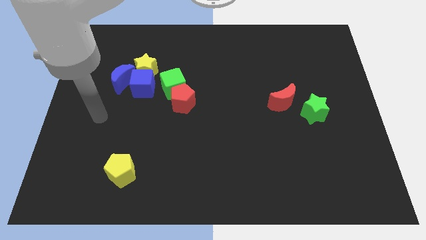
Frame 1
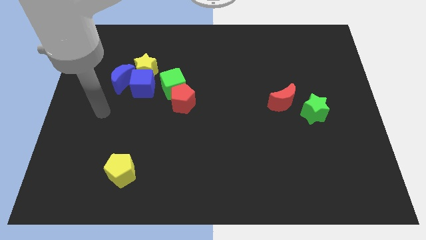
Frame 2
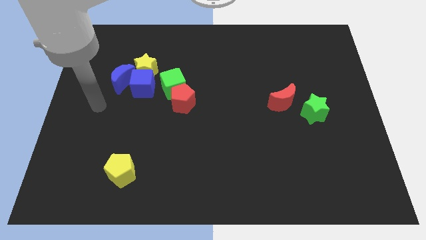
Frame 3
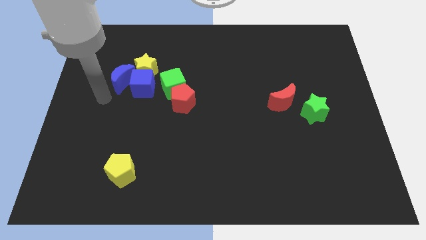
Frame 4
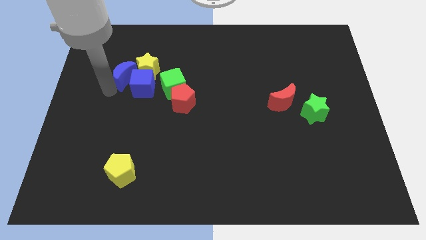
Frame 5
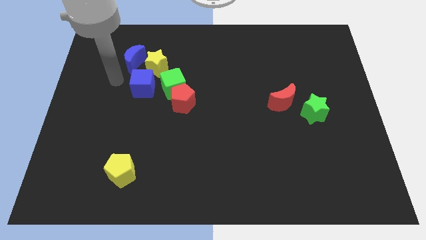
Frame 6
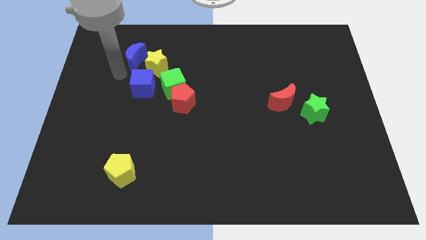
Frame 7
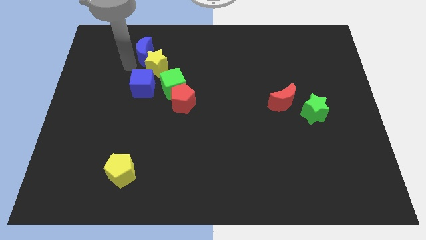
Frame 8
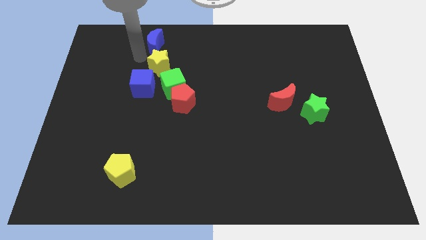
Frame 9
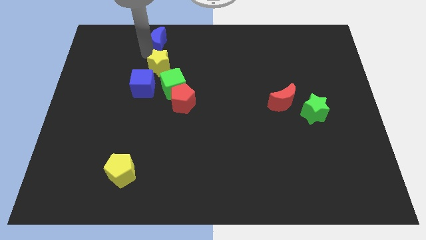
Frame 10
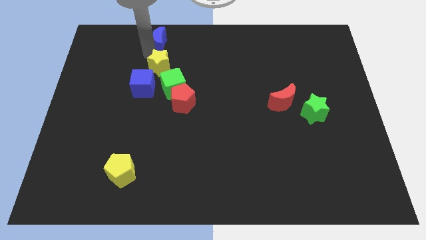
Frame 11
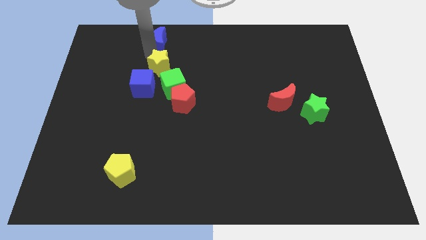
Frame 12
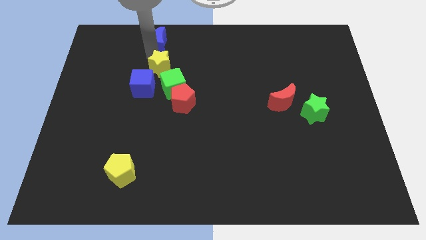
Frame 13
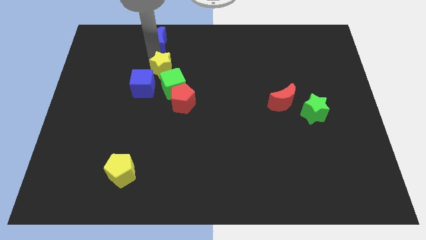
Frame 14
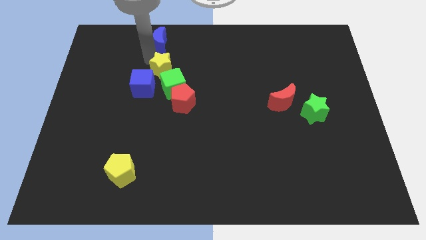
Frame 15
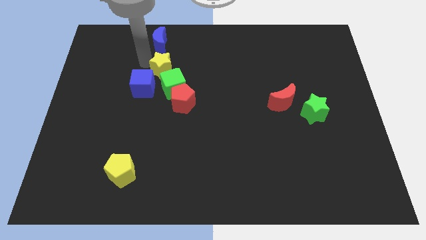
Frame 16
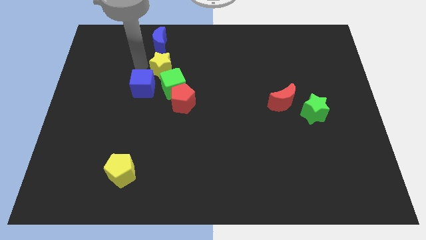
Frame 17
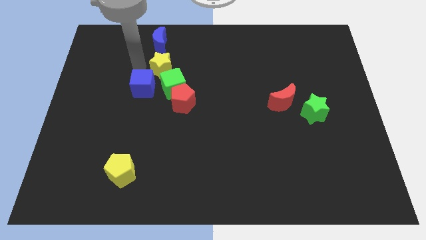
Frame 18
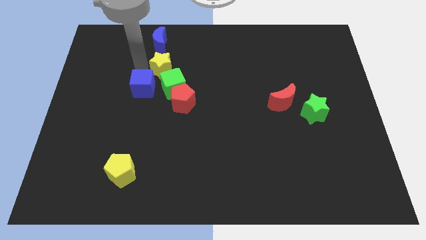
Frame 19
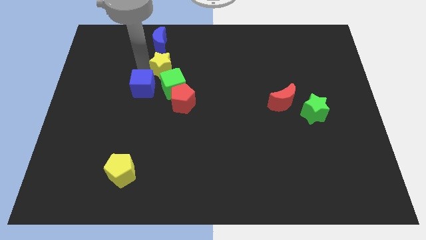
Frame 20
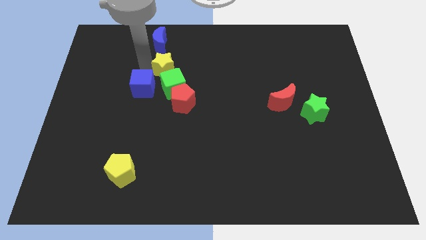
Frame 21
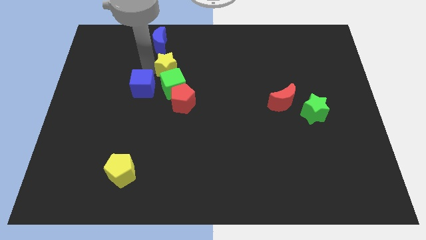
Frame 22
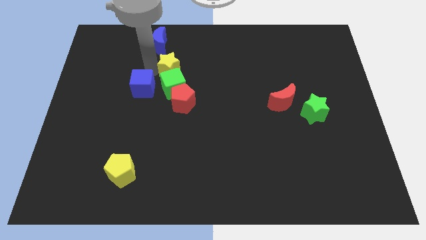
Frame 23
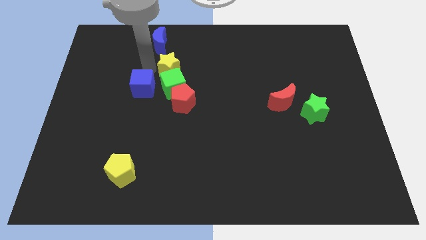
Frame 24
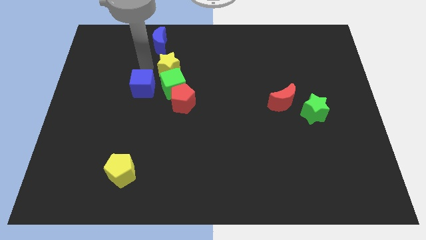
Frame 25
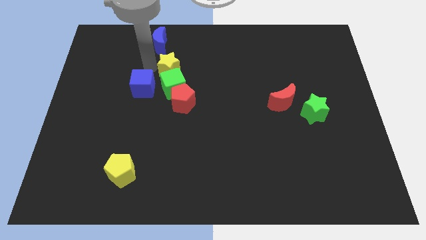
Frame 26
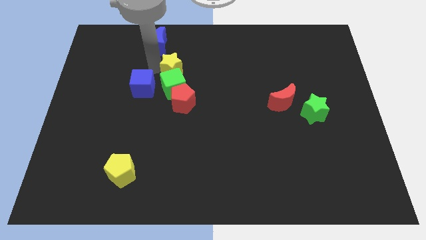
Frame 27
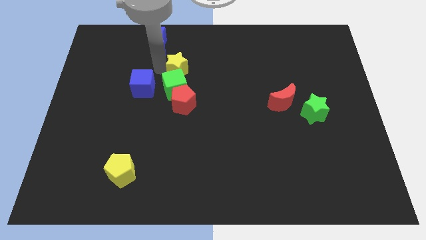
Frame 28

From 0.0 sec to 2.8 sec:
slightly push the yellow star right

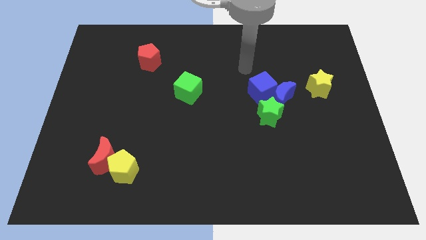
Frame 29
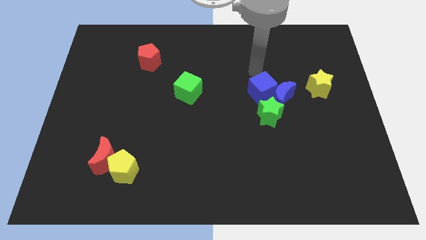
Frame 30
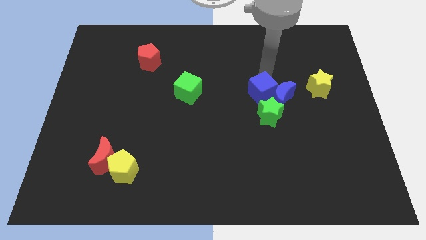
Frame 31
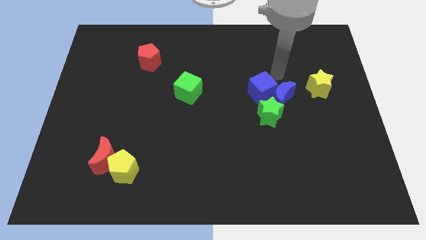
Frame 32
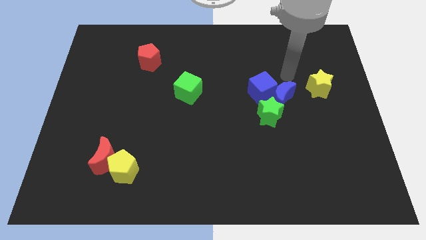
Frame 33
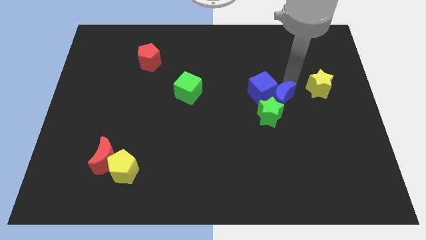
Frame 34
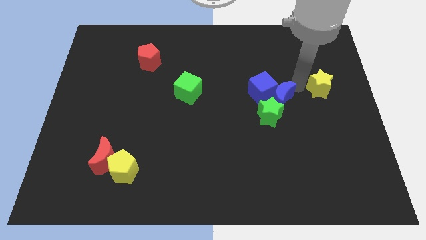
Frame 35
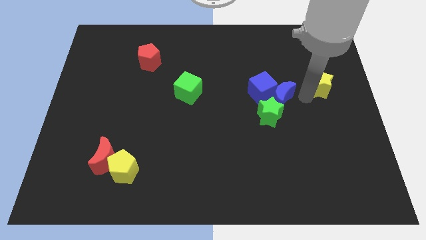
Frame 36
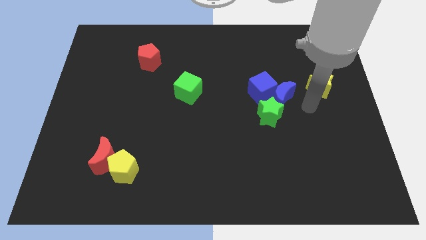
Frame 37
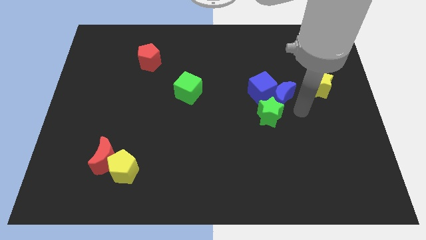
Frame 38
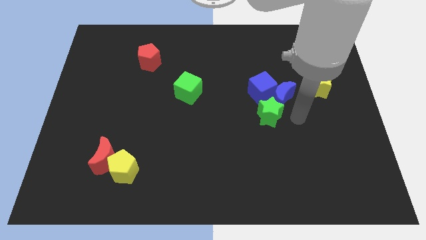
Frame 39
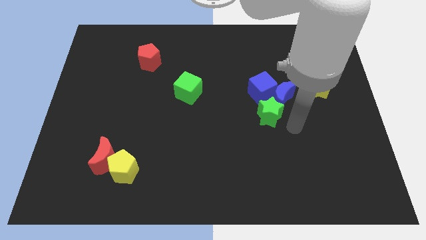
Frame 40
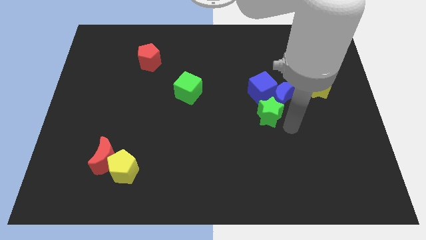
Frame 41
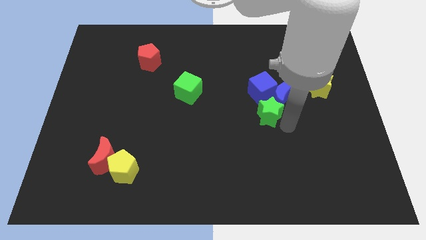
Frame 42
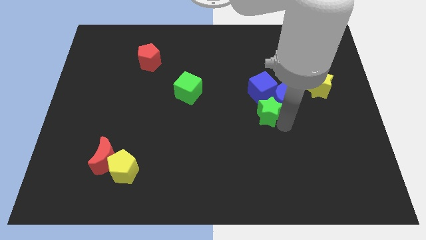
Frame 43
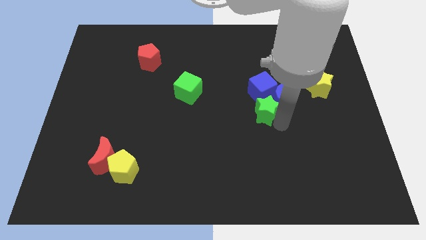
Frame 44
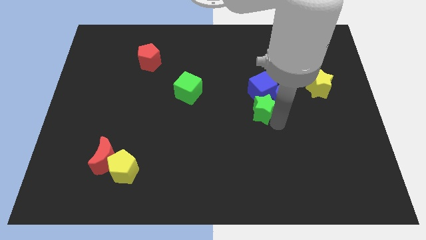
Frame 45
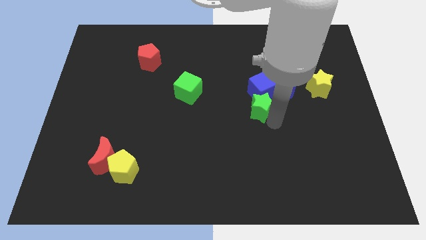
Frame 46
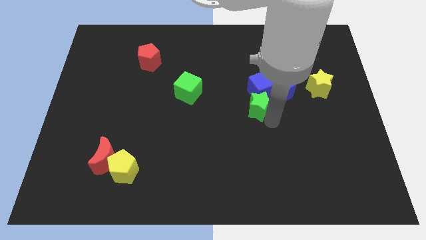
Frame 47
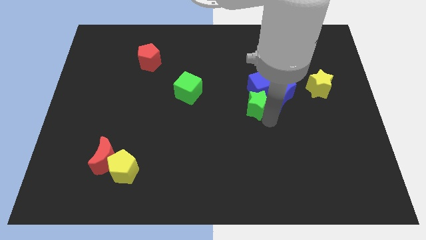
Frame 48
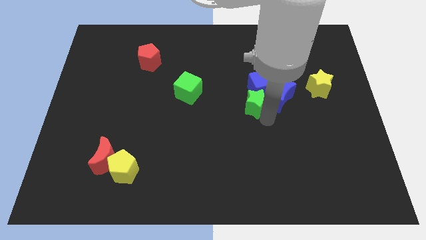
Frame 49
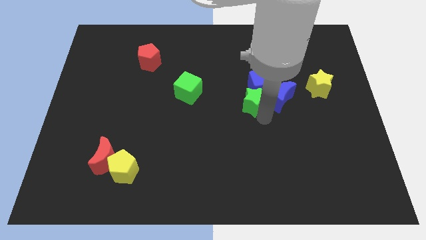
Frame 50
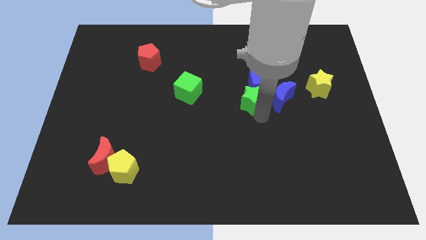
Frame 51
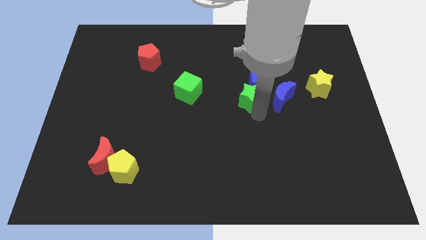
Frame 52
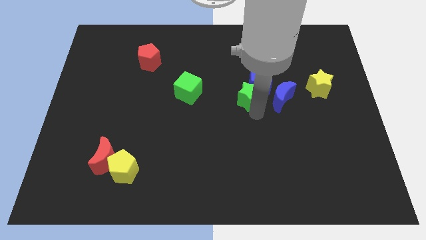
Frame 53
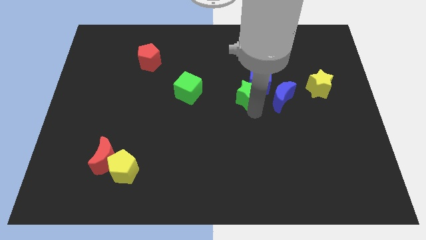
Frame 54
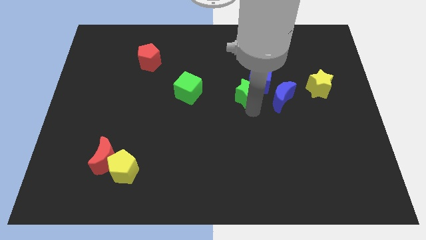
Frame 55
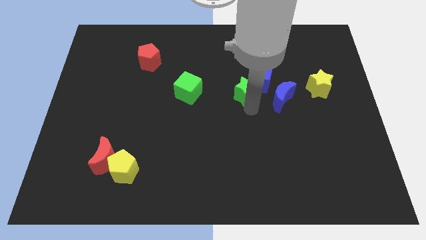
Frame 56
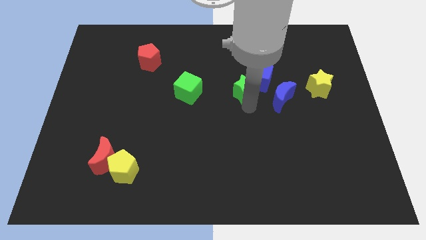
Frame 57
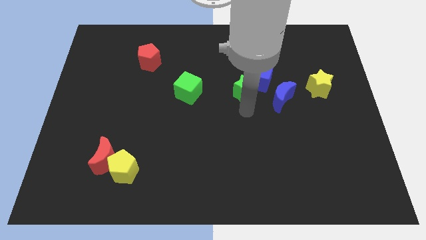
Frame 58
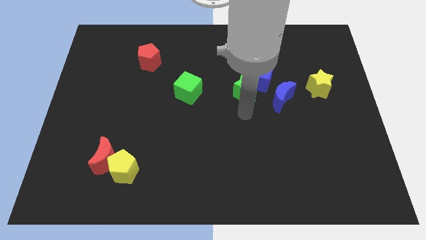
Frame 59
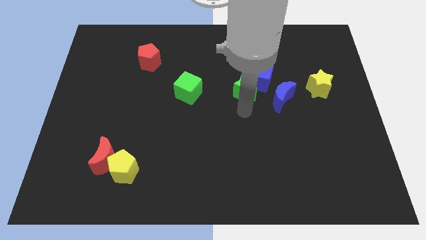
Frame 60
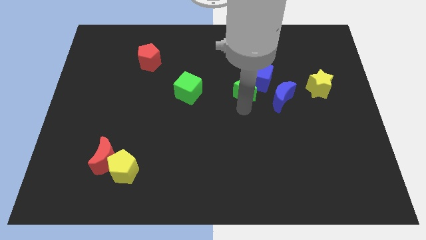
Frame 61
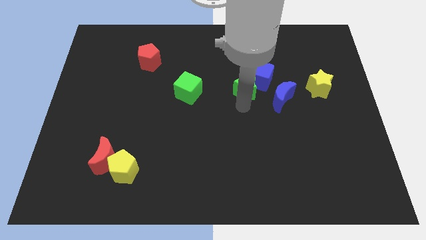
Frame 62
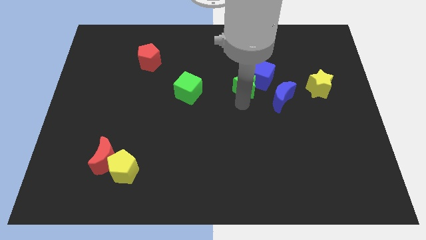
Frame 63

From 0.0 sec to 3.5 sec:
slightly slide the green star up

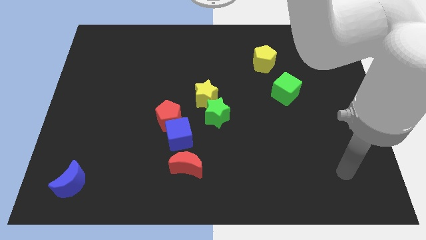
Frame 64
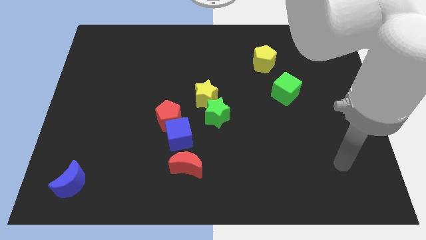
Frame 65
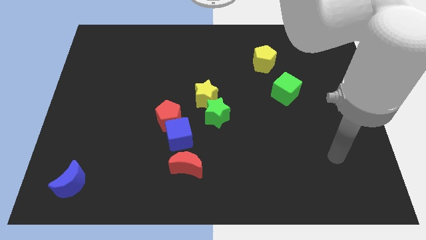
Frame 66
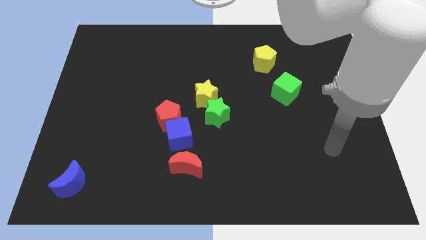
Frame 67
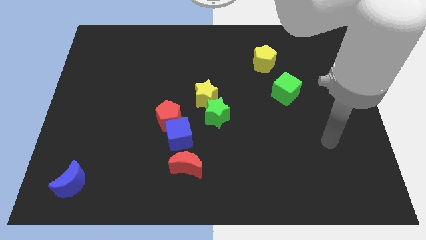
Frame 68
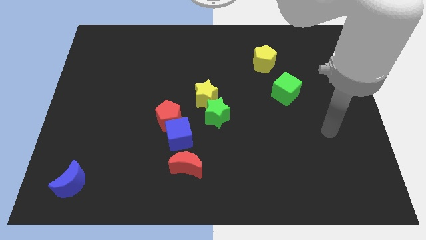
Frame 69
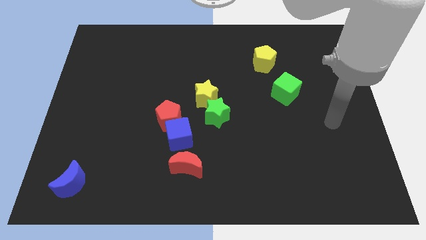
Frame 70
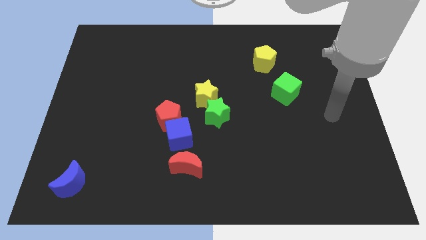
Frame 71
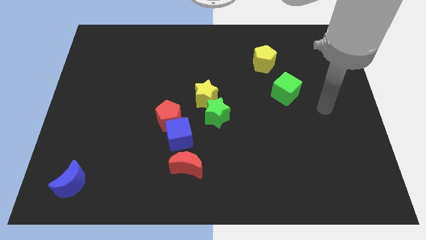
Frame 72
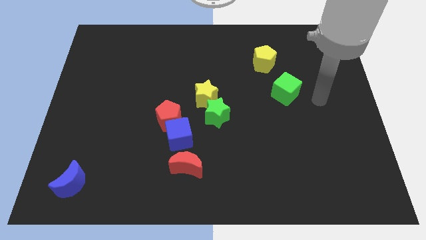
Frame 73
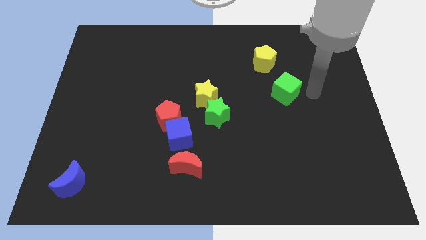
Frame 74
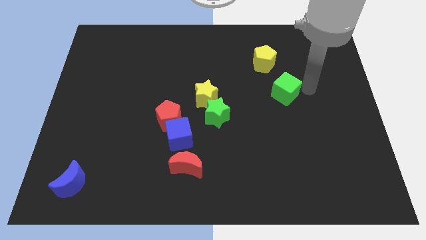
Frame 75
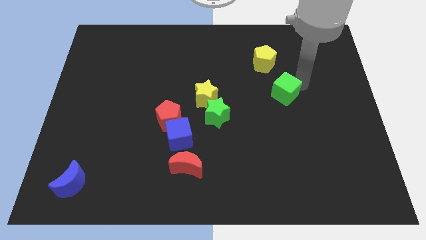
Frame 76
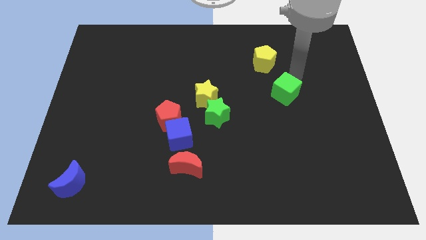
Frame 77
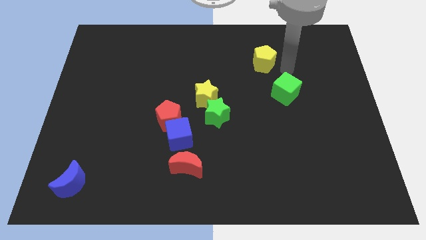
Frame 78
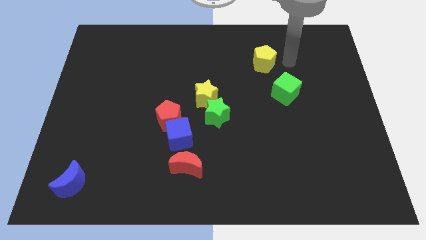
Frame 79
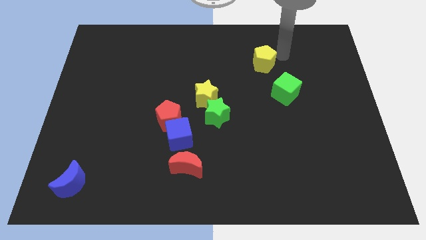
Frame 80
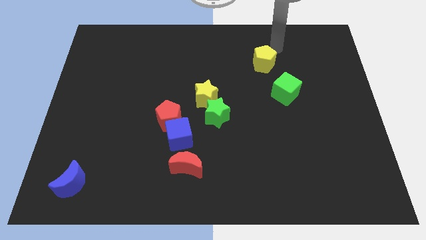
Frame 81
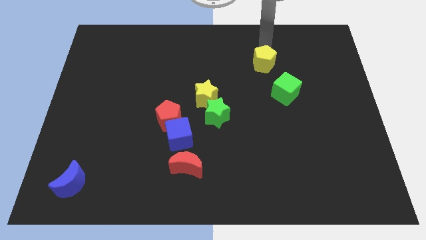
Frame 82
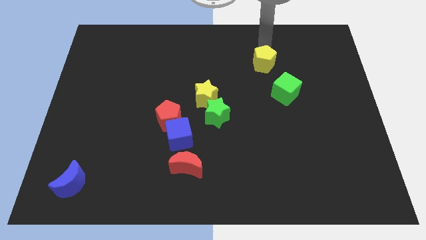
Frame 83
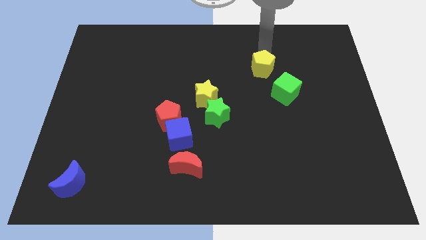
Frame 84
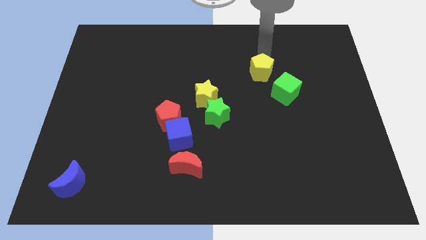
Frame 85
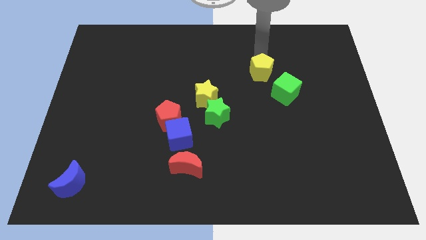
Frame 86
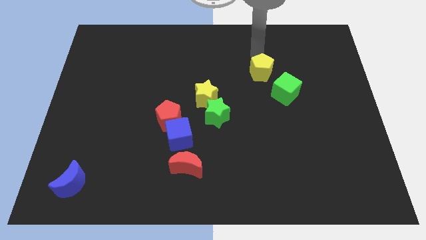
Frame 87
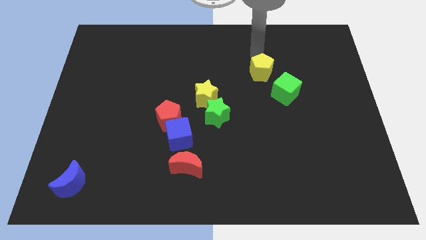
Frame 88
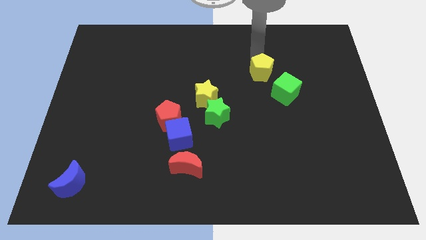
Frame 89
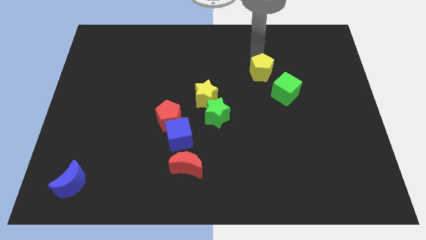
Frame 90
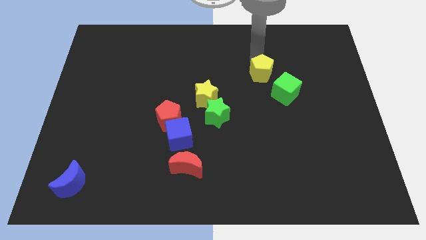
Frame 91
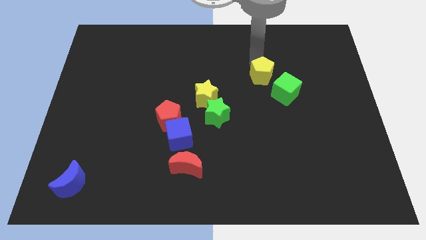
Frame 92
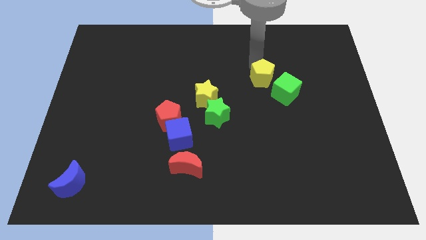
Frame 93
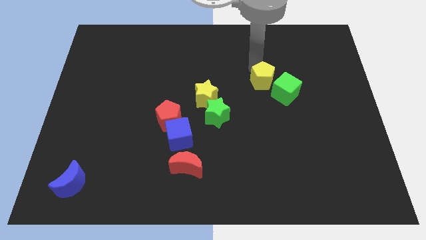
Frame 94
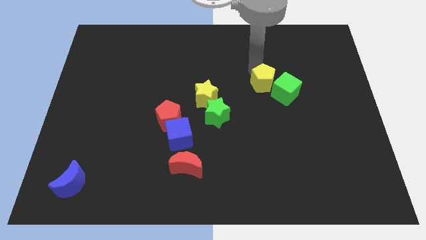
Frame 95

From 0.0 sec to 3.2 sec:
slightly slide the yellow pentagon down
